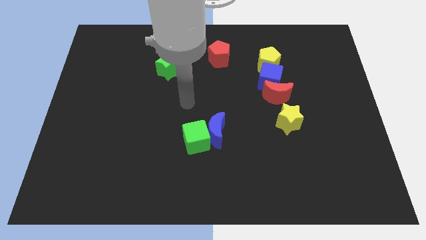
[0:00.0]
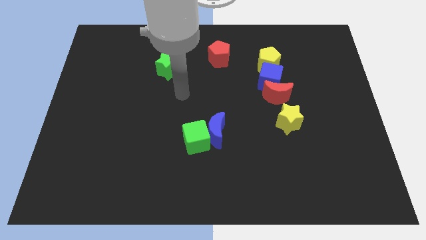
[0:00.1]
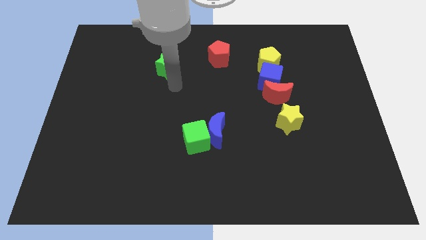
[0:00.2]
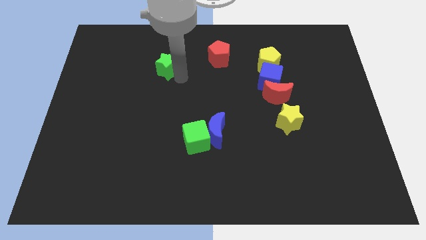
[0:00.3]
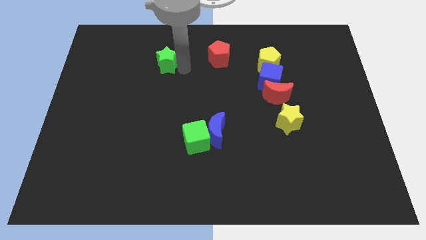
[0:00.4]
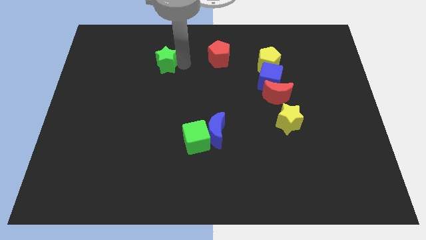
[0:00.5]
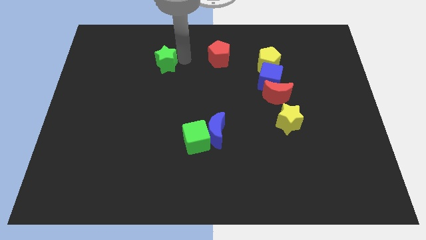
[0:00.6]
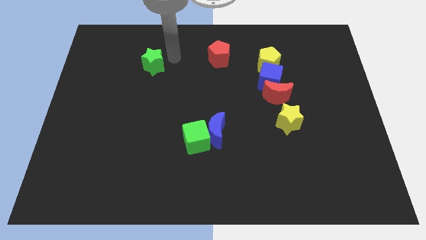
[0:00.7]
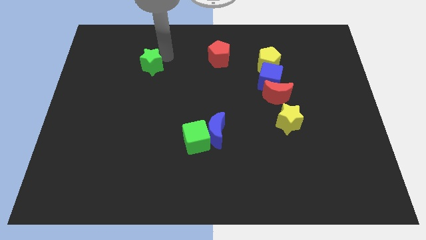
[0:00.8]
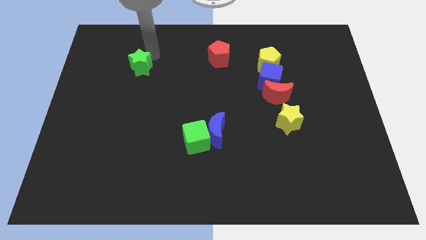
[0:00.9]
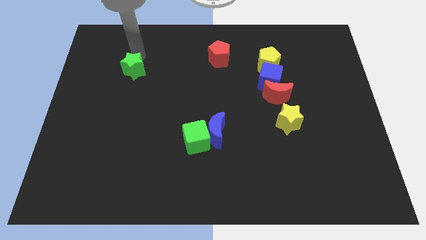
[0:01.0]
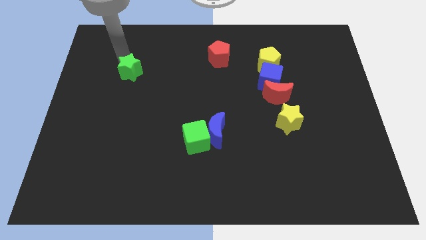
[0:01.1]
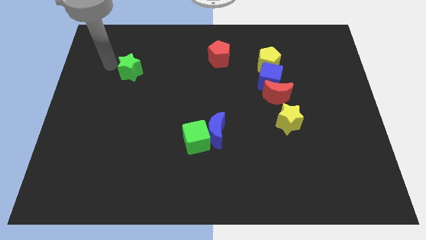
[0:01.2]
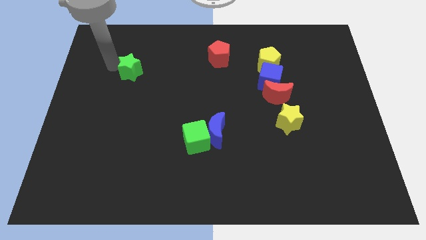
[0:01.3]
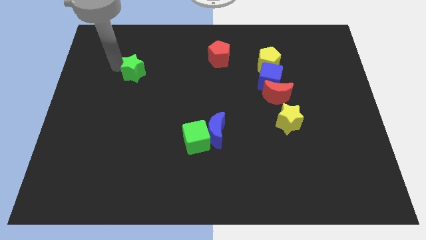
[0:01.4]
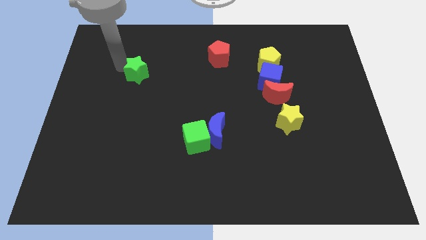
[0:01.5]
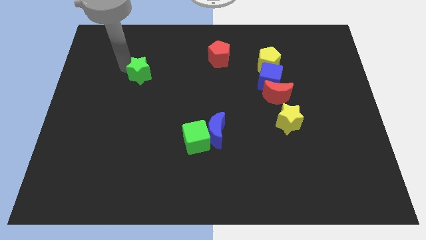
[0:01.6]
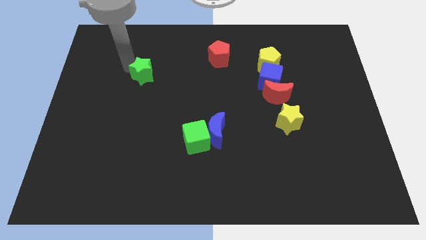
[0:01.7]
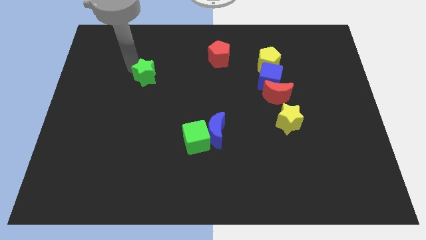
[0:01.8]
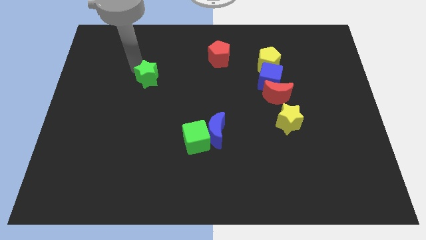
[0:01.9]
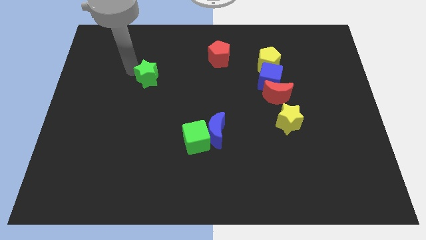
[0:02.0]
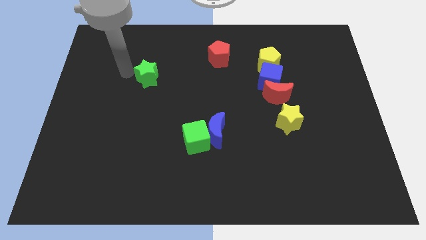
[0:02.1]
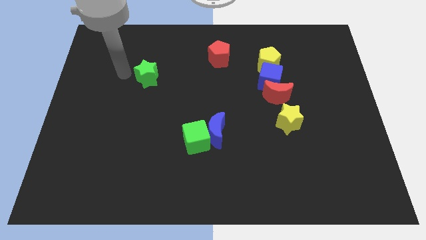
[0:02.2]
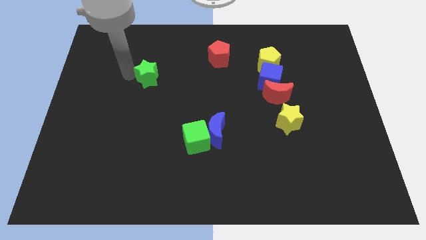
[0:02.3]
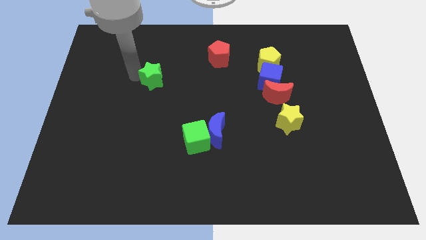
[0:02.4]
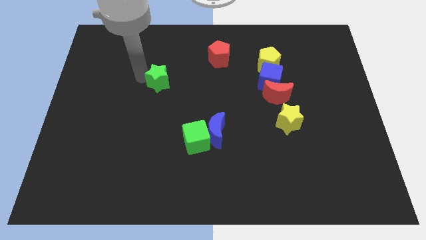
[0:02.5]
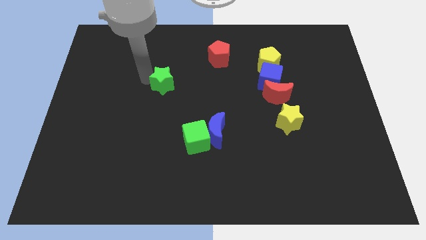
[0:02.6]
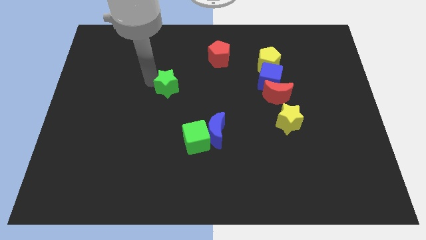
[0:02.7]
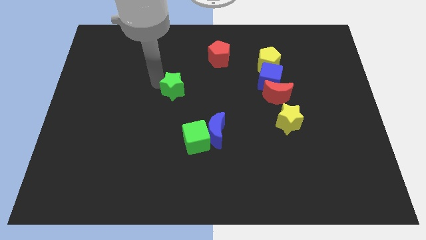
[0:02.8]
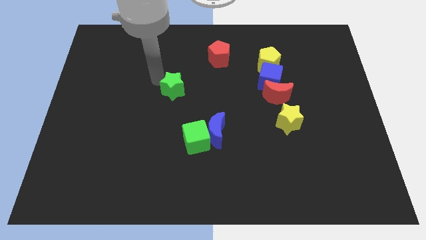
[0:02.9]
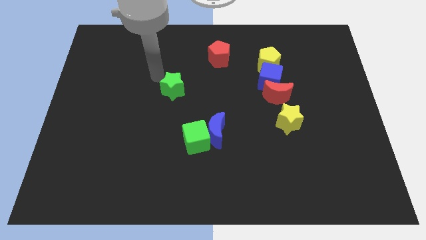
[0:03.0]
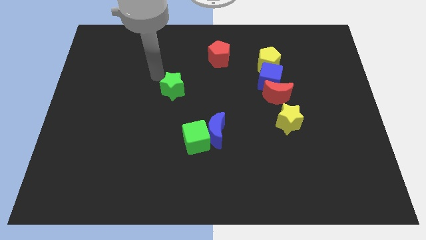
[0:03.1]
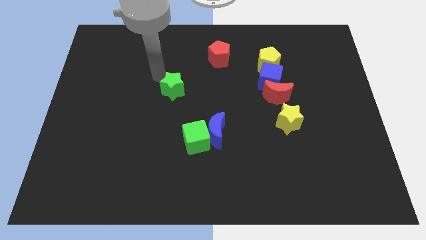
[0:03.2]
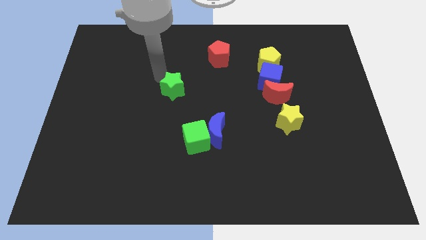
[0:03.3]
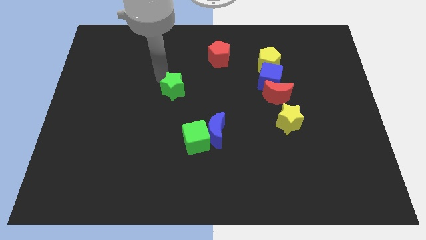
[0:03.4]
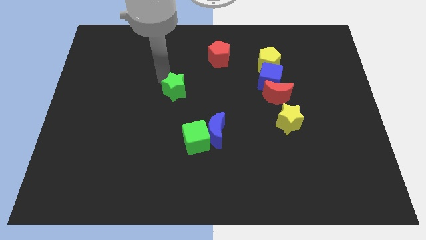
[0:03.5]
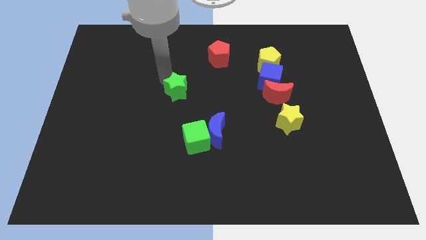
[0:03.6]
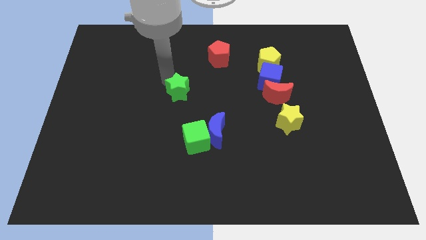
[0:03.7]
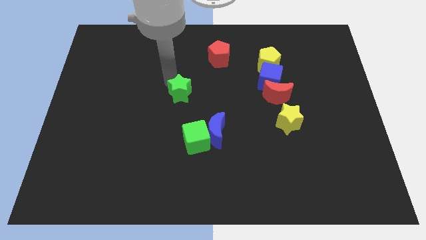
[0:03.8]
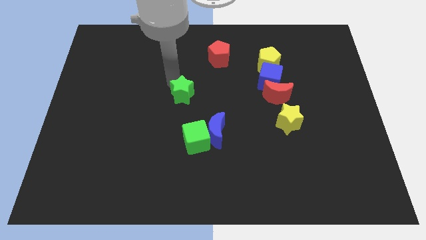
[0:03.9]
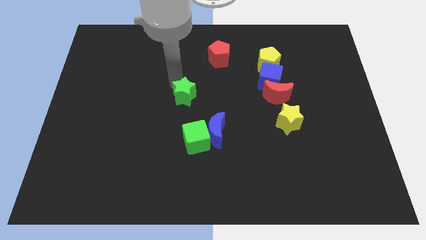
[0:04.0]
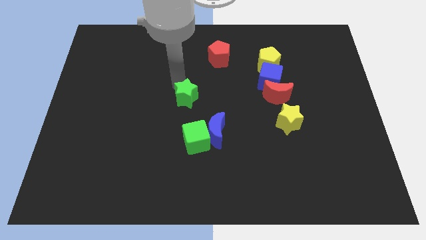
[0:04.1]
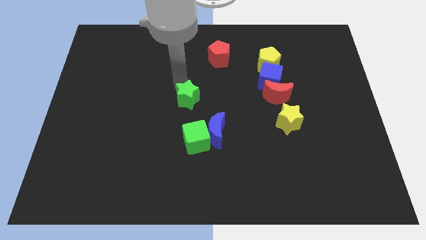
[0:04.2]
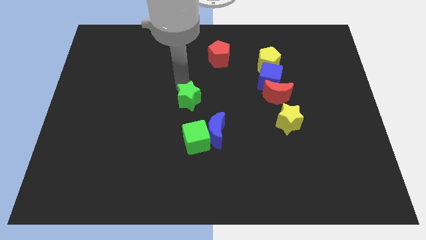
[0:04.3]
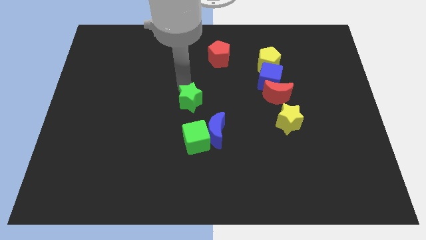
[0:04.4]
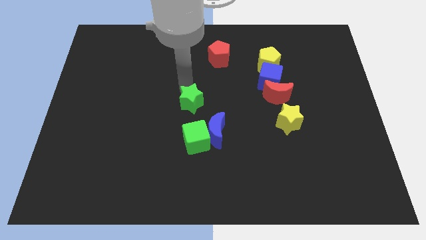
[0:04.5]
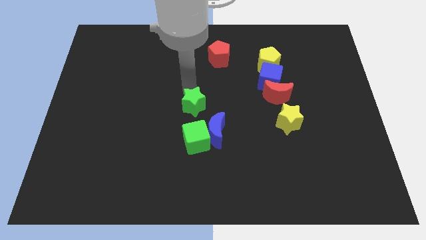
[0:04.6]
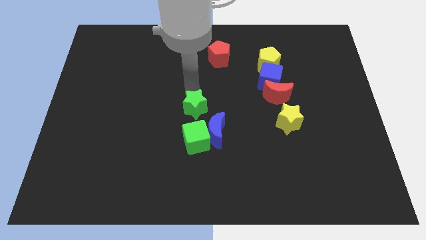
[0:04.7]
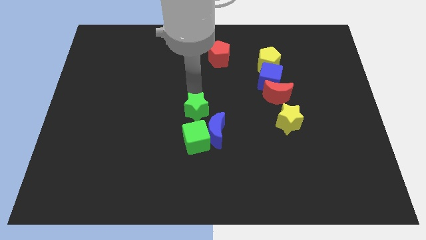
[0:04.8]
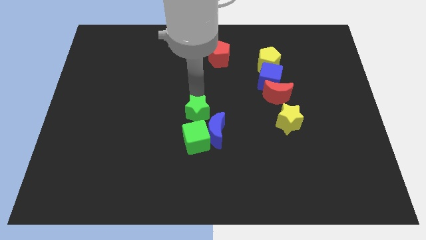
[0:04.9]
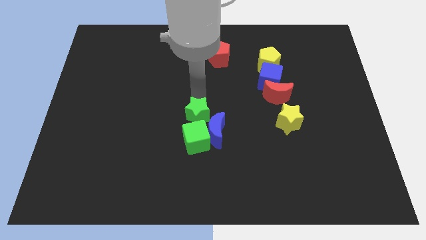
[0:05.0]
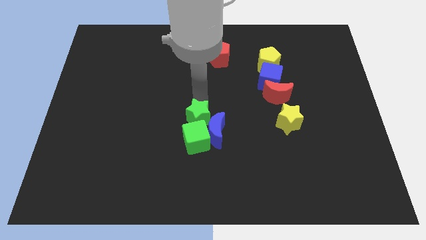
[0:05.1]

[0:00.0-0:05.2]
push the green star to the green cube

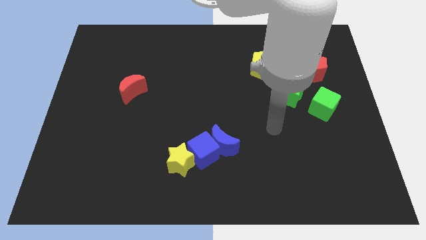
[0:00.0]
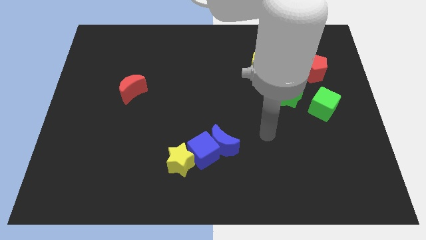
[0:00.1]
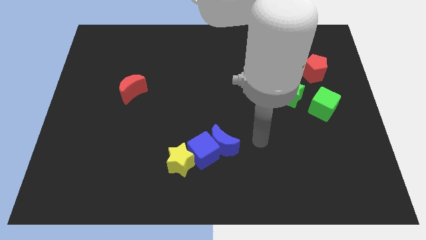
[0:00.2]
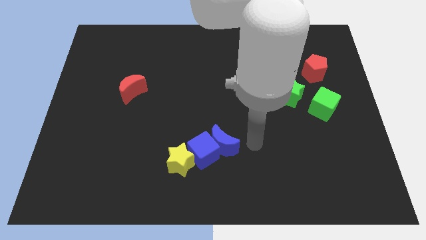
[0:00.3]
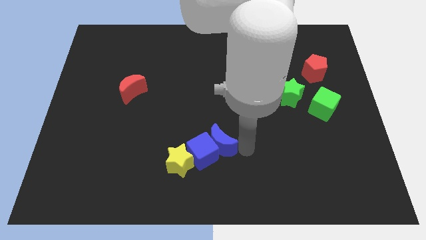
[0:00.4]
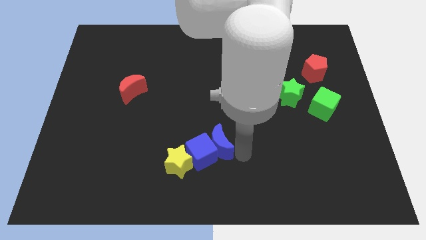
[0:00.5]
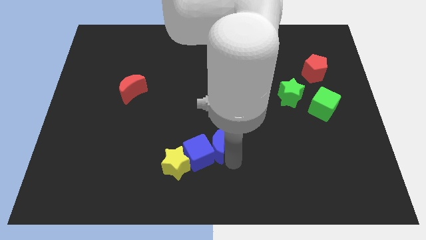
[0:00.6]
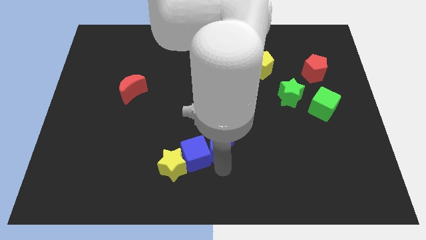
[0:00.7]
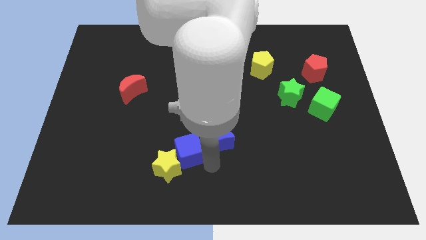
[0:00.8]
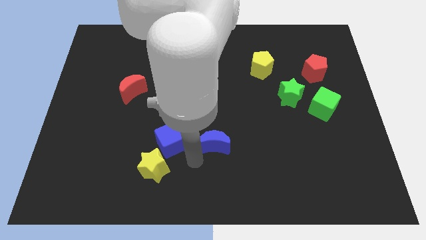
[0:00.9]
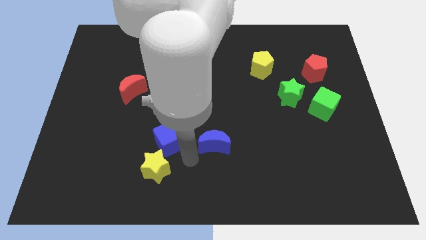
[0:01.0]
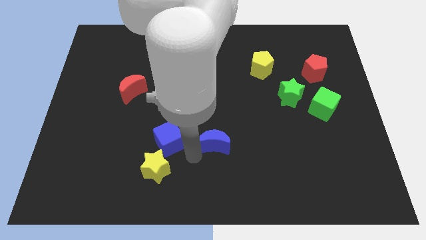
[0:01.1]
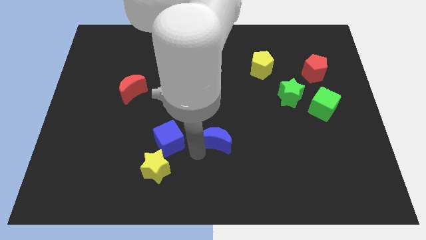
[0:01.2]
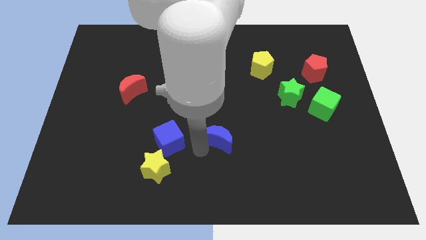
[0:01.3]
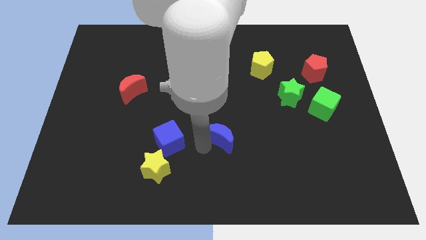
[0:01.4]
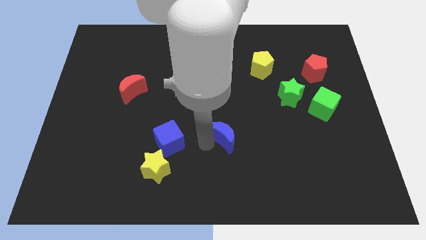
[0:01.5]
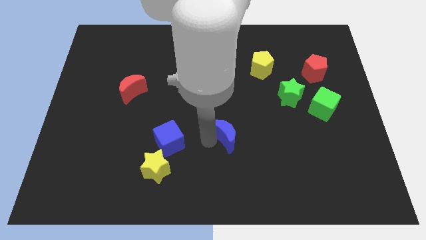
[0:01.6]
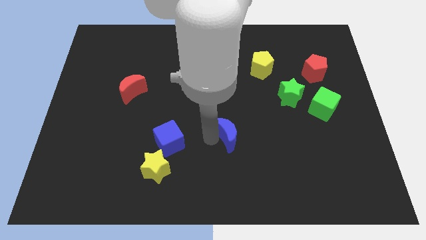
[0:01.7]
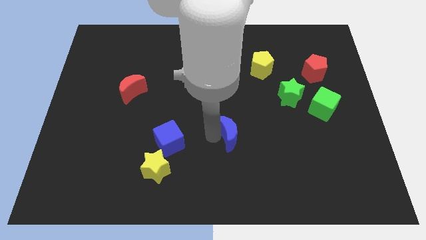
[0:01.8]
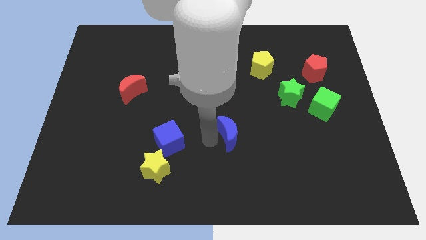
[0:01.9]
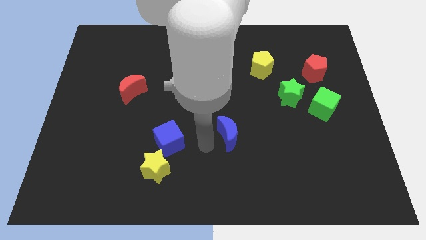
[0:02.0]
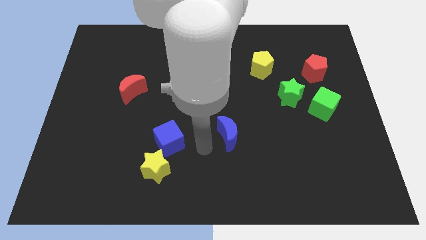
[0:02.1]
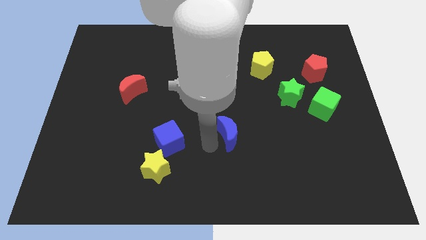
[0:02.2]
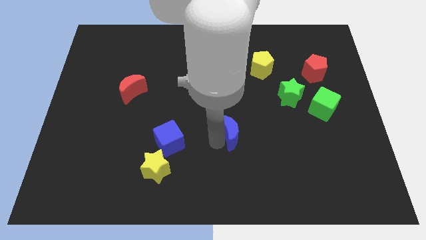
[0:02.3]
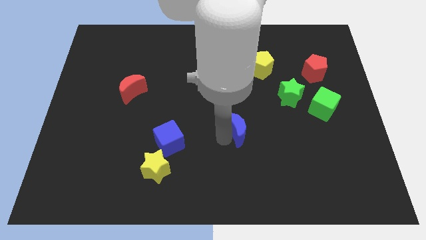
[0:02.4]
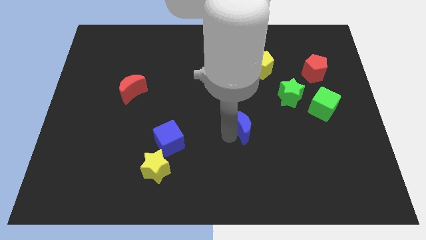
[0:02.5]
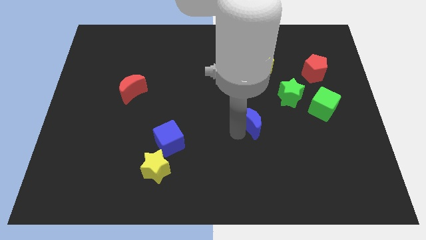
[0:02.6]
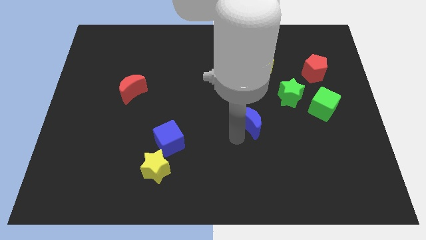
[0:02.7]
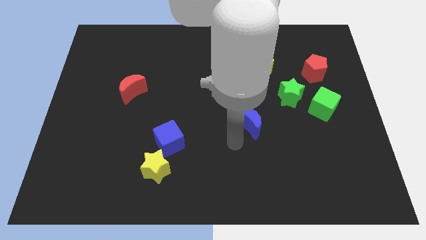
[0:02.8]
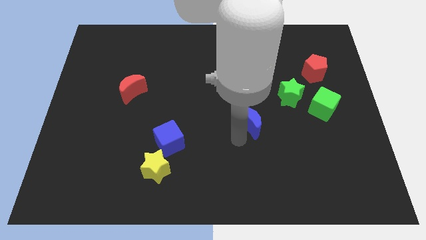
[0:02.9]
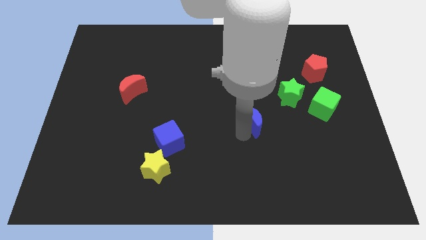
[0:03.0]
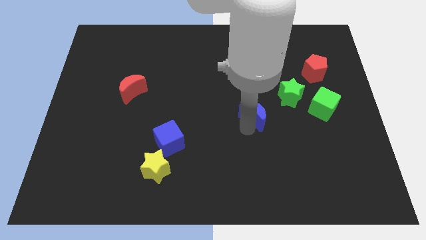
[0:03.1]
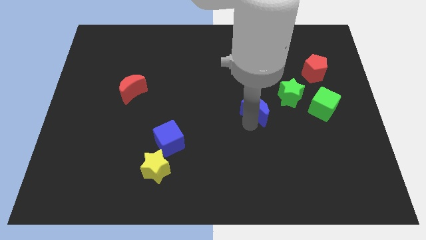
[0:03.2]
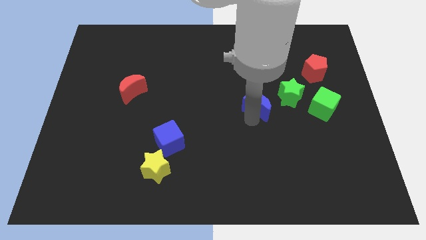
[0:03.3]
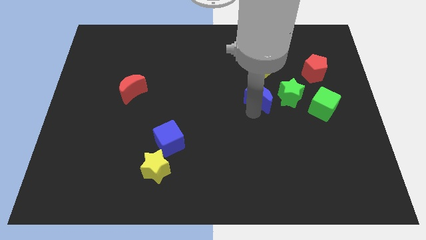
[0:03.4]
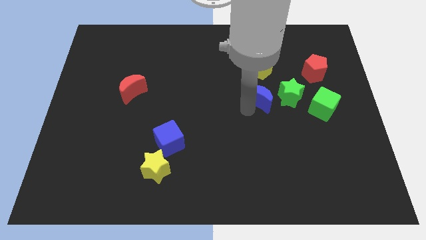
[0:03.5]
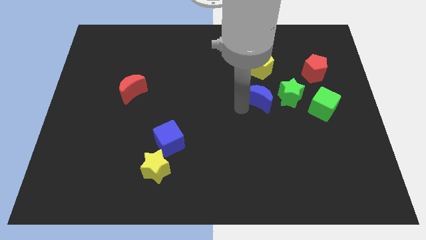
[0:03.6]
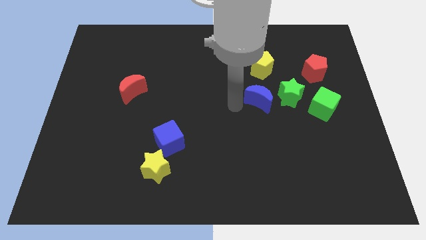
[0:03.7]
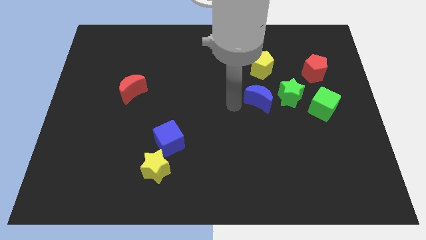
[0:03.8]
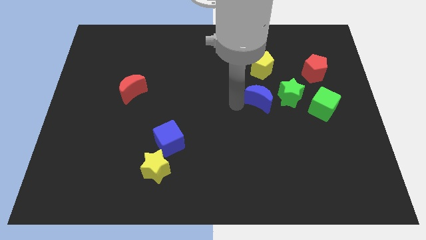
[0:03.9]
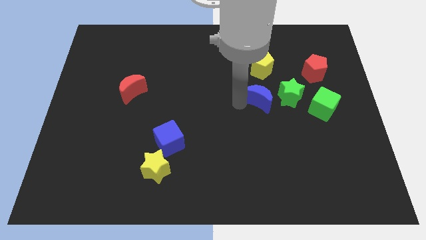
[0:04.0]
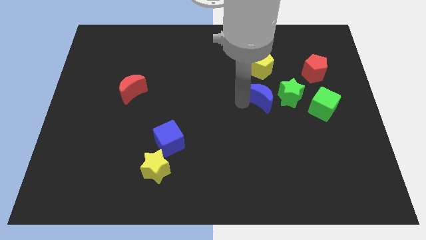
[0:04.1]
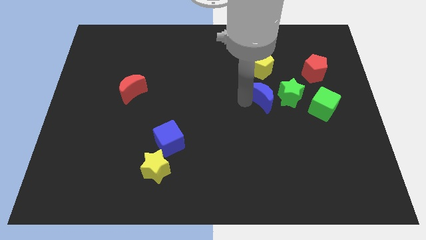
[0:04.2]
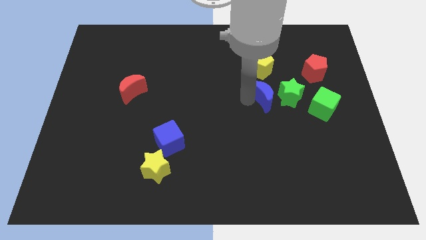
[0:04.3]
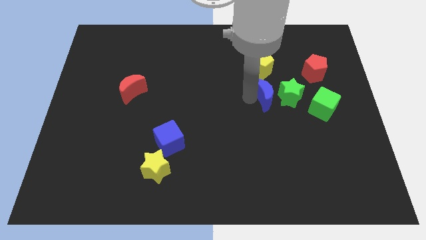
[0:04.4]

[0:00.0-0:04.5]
slide the blue moon close to the green star
